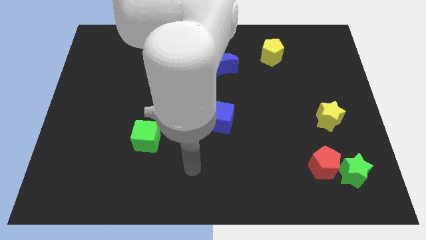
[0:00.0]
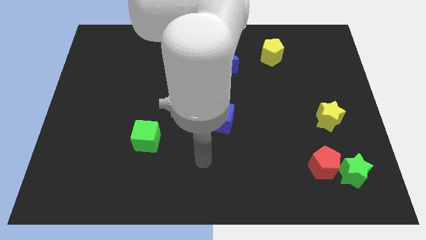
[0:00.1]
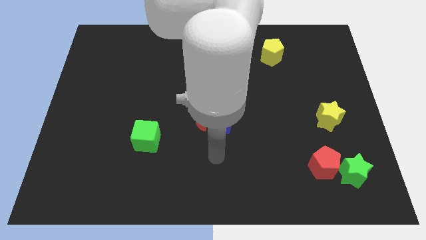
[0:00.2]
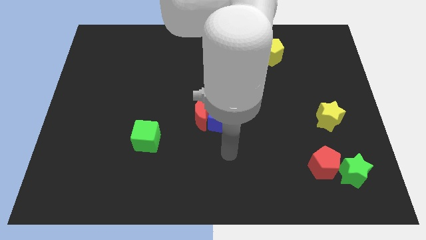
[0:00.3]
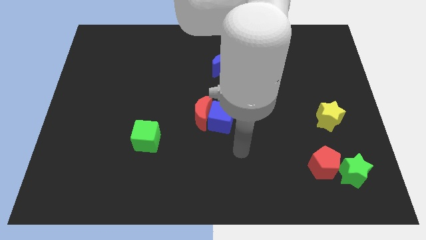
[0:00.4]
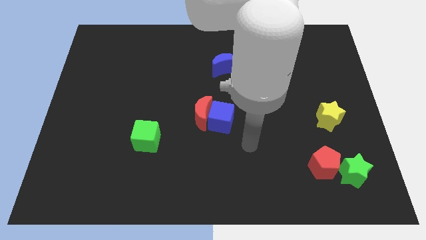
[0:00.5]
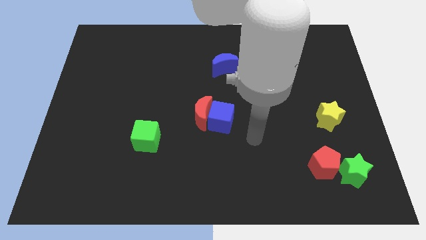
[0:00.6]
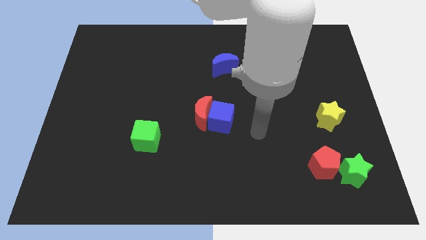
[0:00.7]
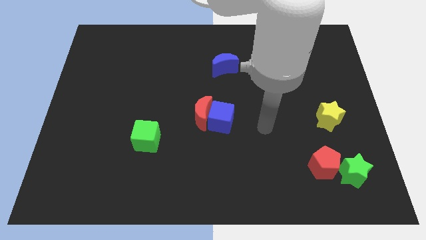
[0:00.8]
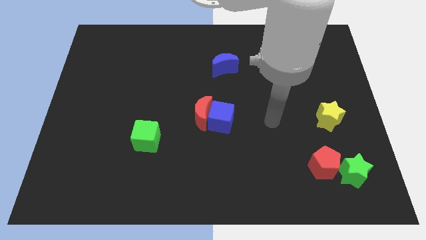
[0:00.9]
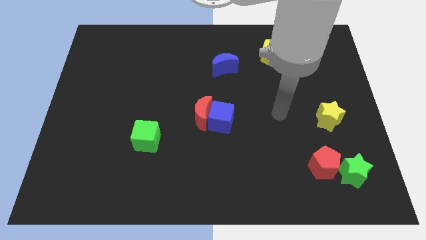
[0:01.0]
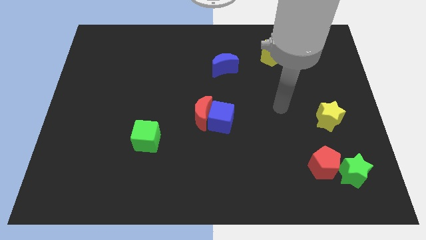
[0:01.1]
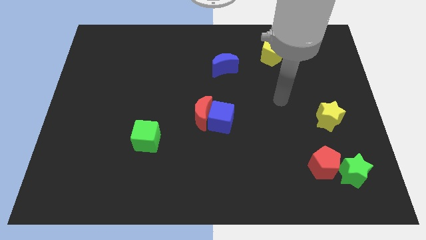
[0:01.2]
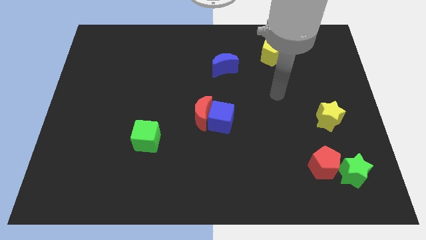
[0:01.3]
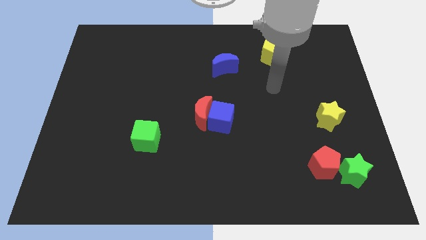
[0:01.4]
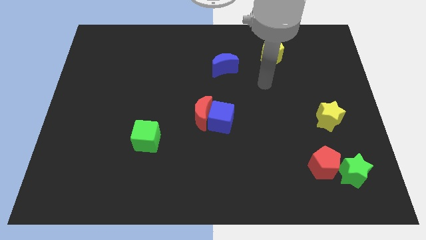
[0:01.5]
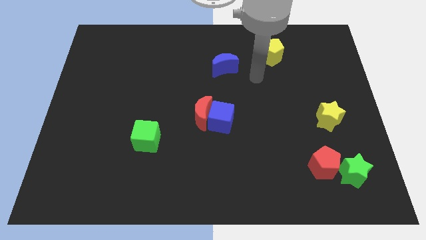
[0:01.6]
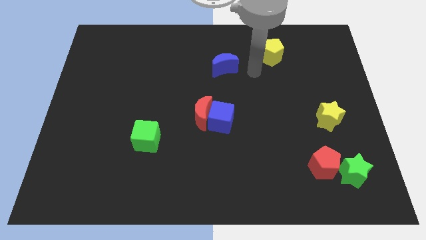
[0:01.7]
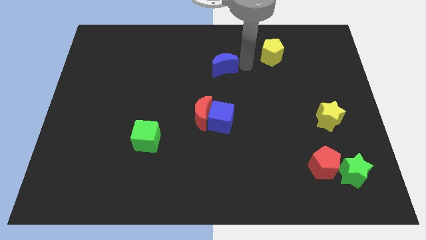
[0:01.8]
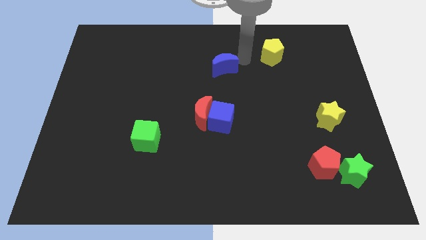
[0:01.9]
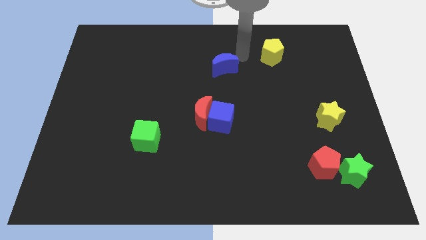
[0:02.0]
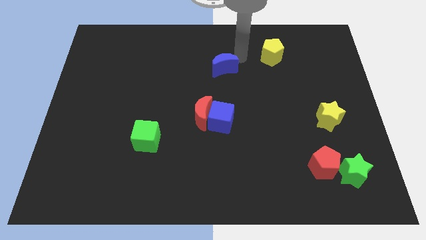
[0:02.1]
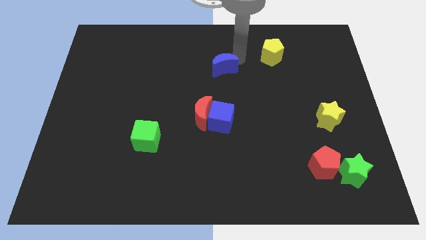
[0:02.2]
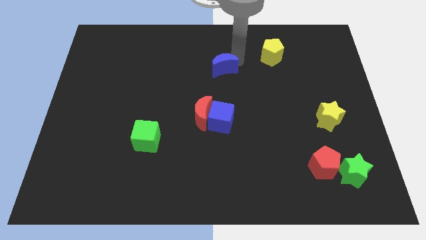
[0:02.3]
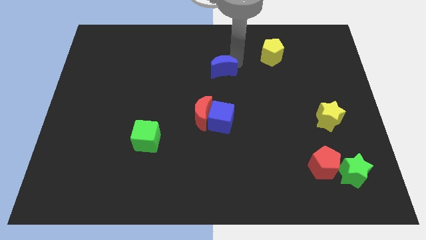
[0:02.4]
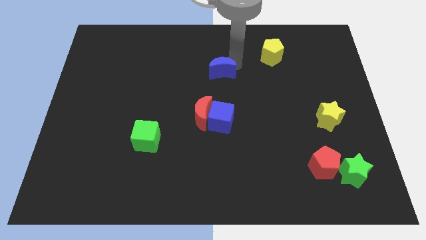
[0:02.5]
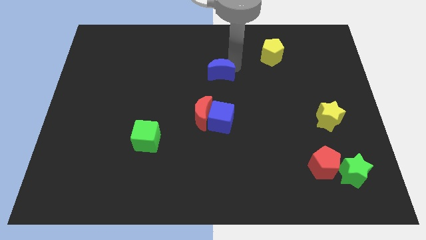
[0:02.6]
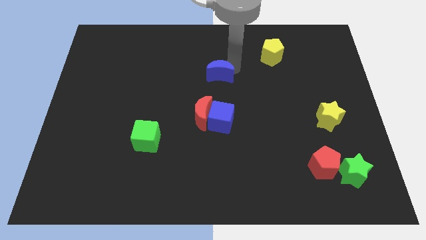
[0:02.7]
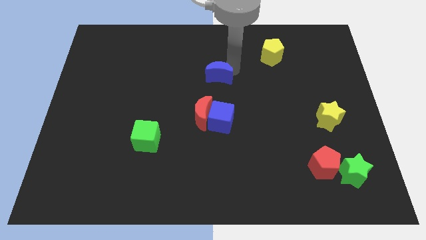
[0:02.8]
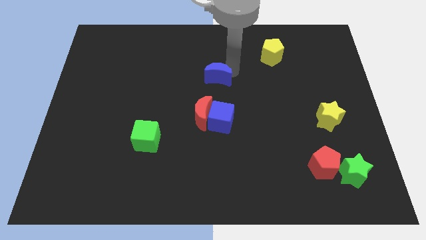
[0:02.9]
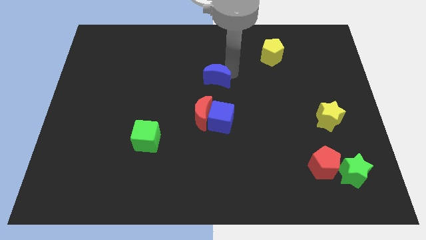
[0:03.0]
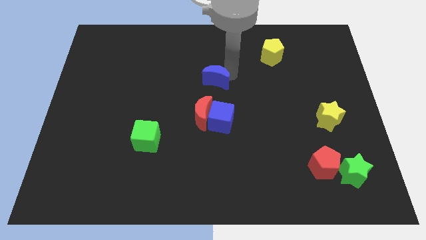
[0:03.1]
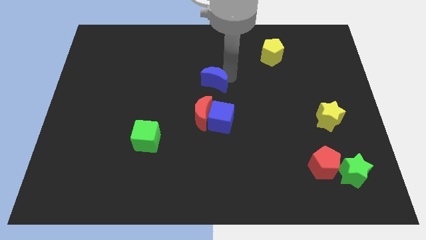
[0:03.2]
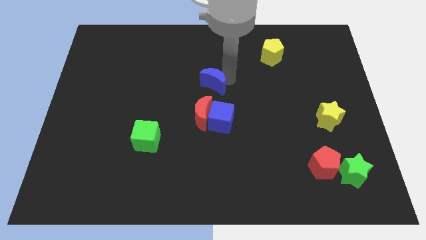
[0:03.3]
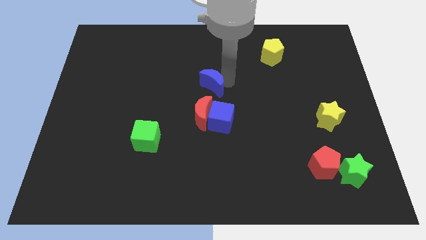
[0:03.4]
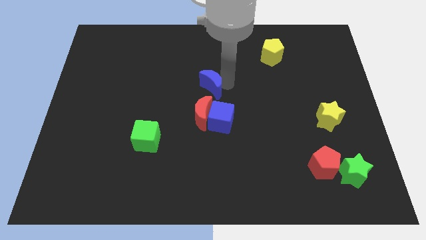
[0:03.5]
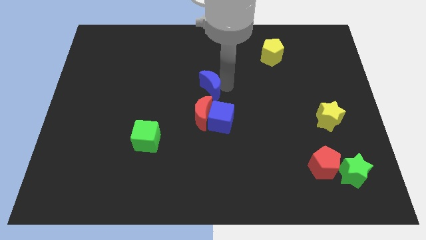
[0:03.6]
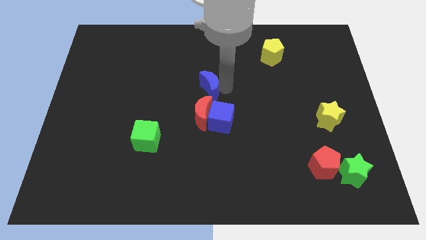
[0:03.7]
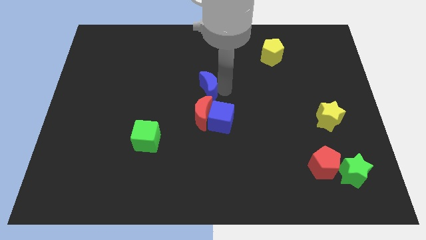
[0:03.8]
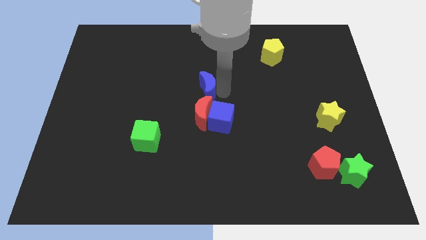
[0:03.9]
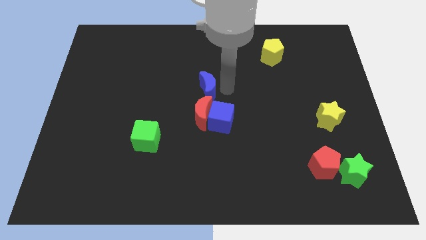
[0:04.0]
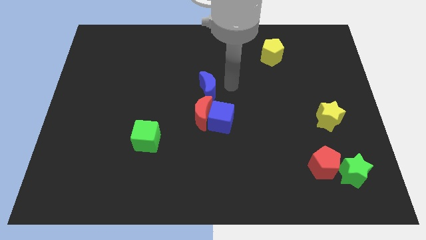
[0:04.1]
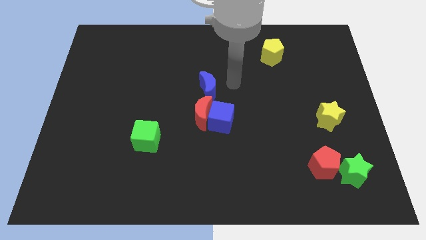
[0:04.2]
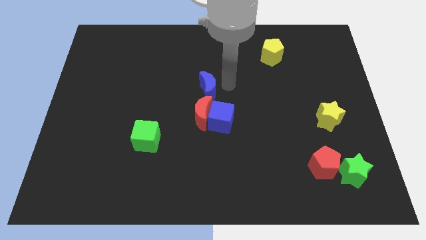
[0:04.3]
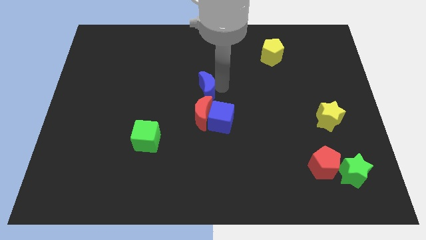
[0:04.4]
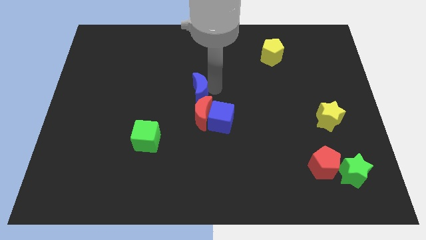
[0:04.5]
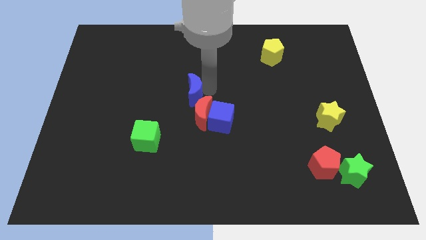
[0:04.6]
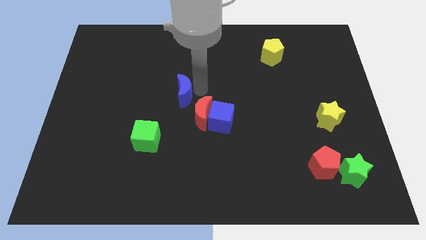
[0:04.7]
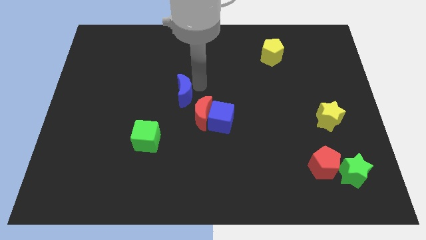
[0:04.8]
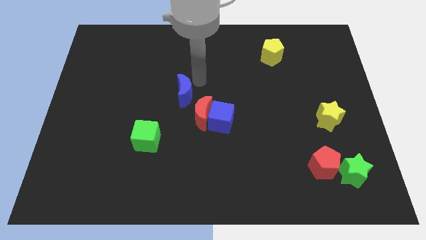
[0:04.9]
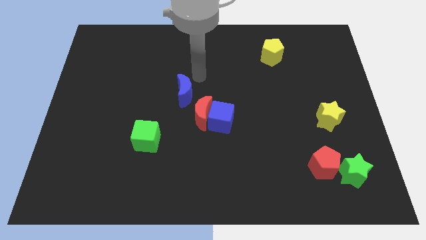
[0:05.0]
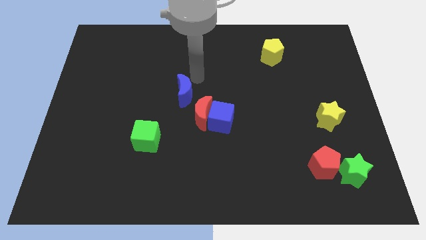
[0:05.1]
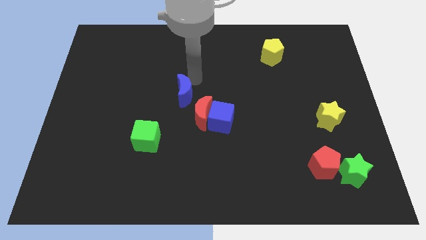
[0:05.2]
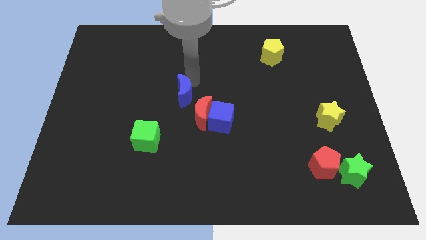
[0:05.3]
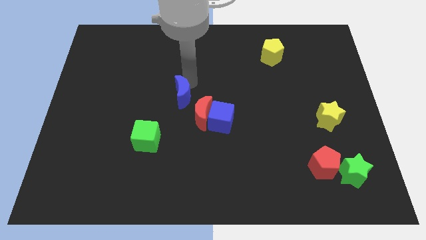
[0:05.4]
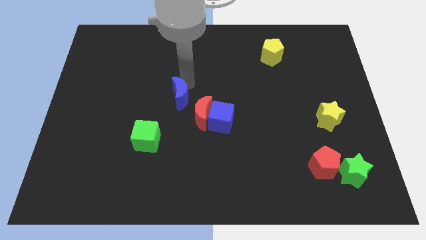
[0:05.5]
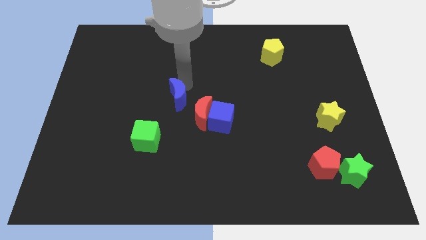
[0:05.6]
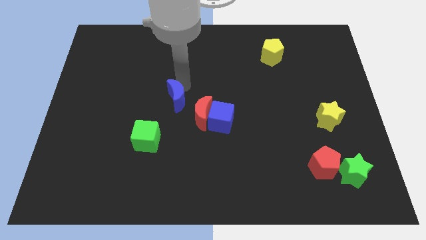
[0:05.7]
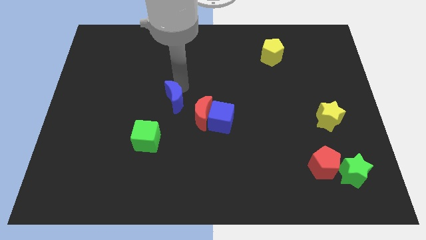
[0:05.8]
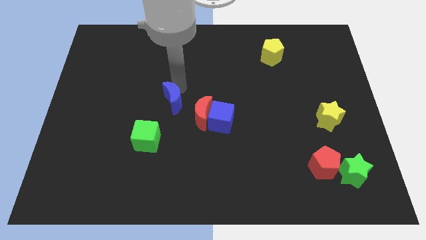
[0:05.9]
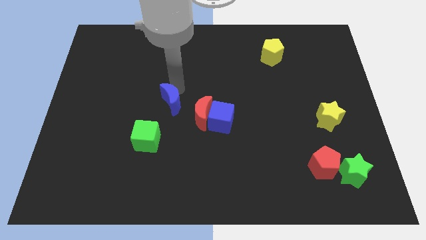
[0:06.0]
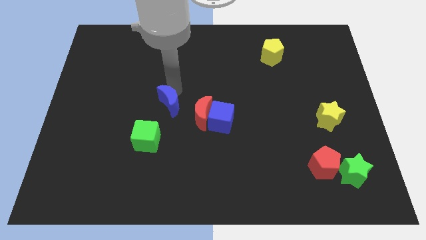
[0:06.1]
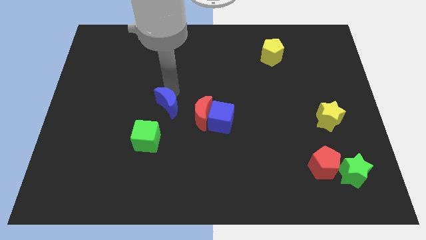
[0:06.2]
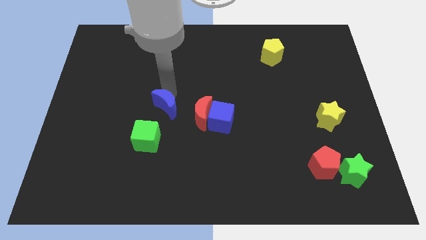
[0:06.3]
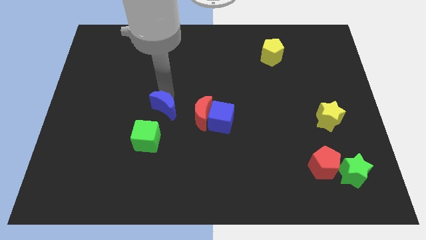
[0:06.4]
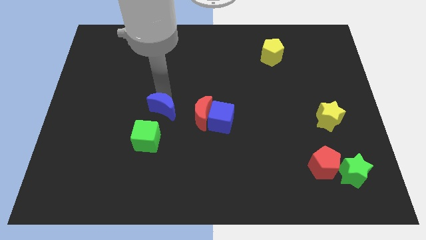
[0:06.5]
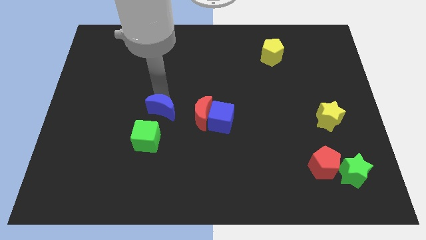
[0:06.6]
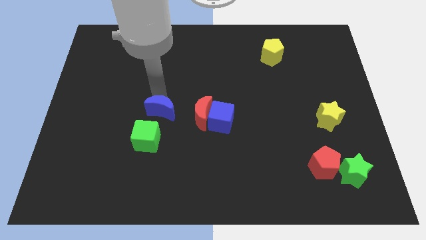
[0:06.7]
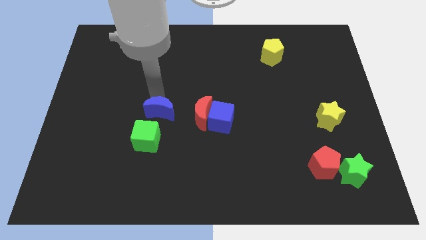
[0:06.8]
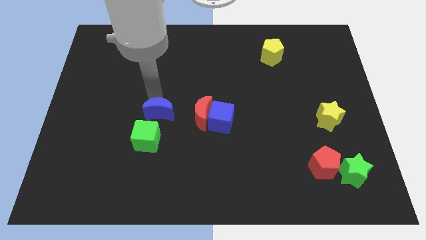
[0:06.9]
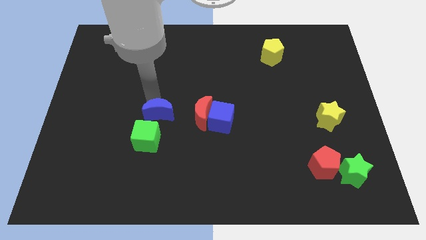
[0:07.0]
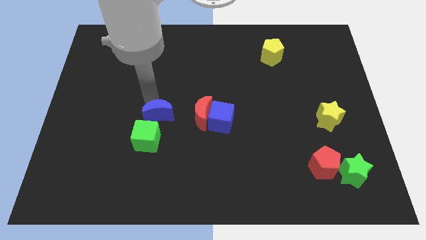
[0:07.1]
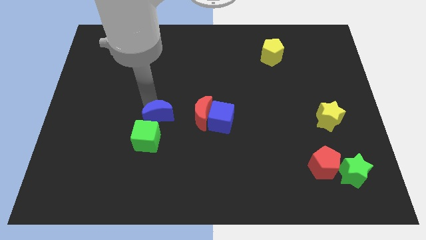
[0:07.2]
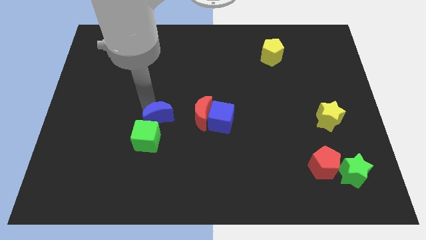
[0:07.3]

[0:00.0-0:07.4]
put the blue moon next to the green cube

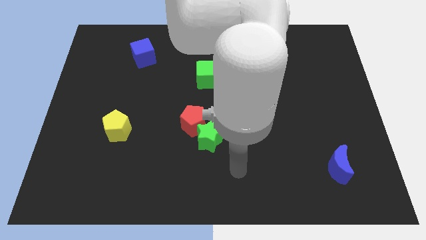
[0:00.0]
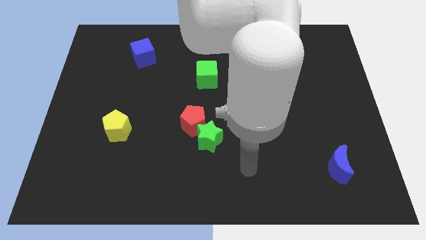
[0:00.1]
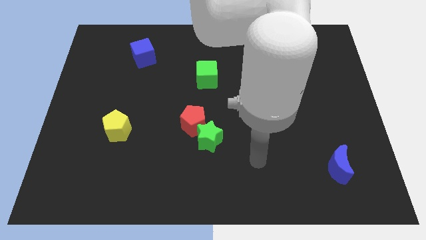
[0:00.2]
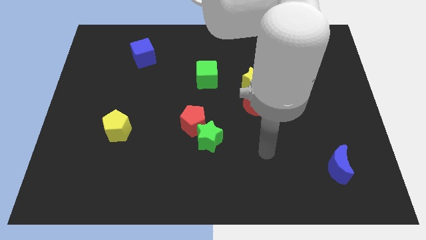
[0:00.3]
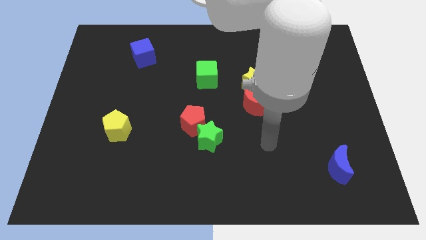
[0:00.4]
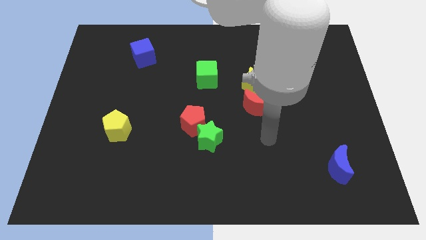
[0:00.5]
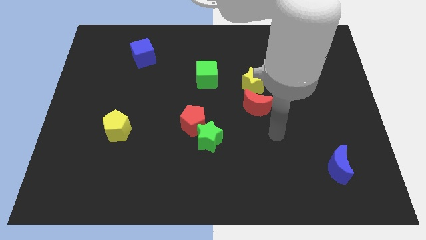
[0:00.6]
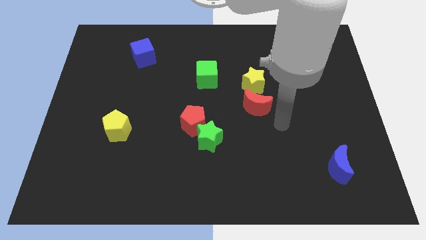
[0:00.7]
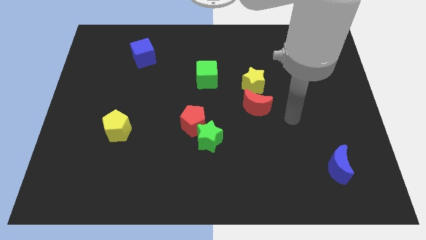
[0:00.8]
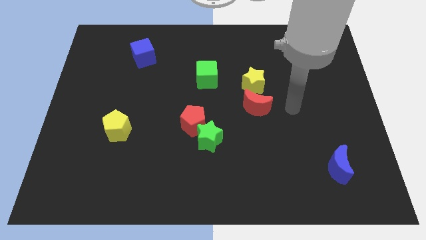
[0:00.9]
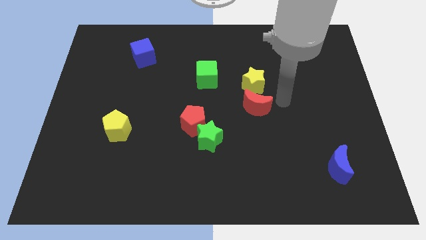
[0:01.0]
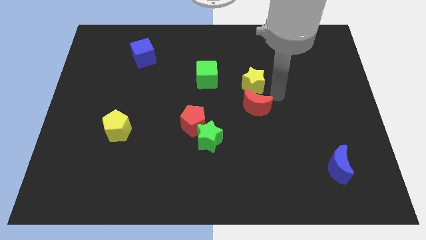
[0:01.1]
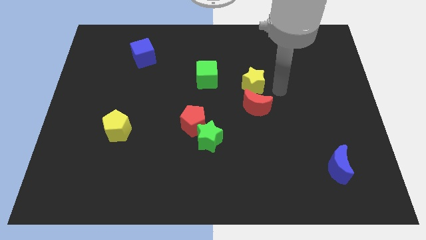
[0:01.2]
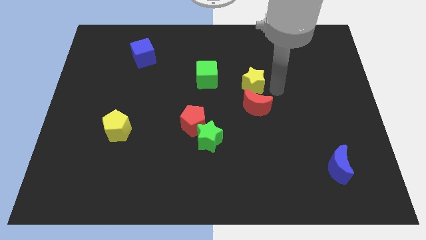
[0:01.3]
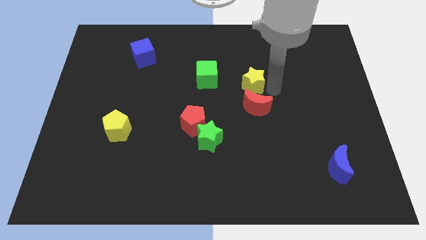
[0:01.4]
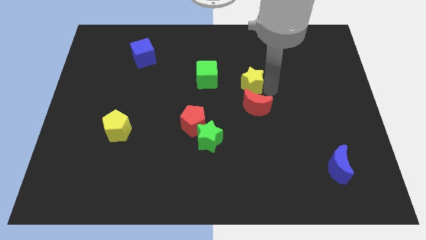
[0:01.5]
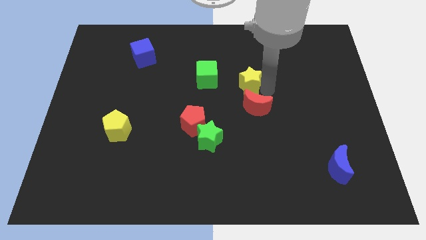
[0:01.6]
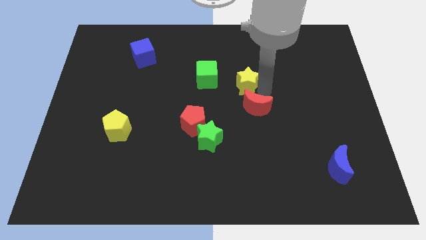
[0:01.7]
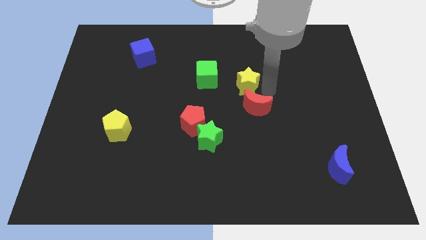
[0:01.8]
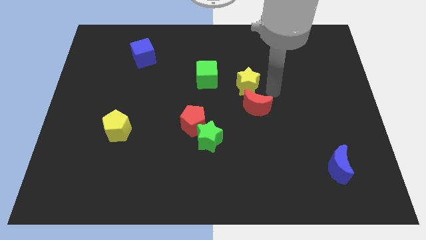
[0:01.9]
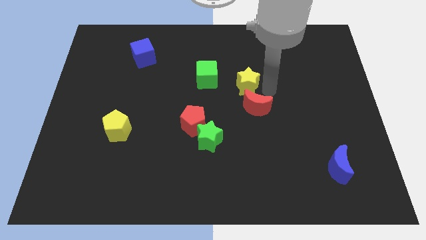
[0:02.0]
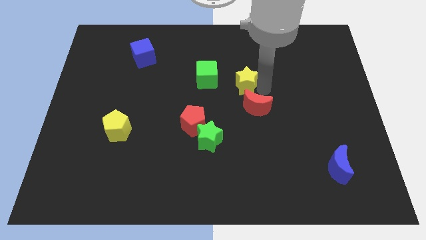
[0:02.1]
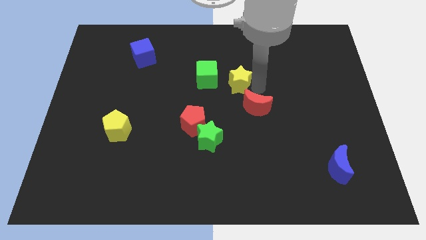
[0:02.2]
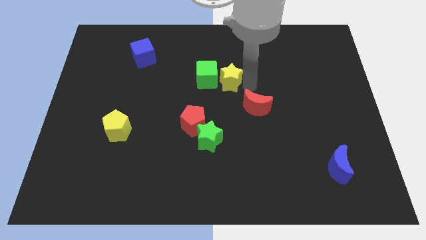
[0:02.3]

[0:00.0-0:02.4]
put the yellow star close to the green cube
